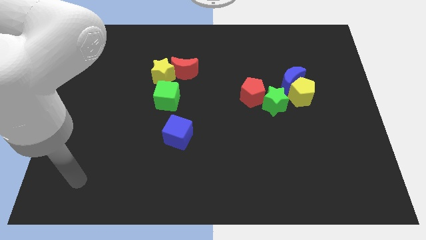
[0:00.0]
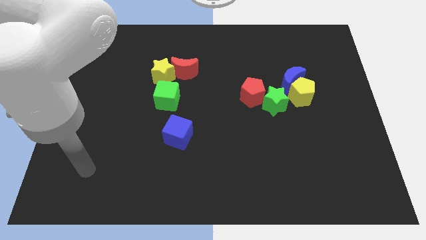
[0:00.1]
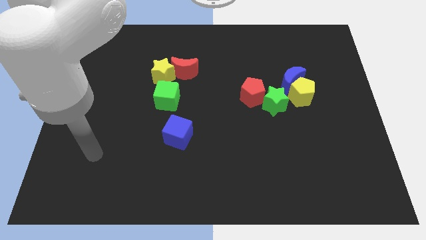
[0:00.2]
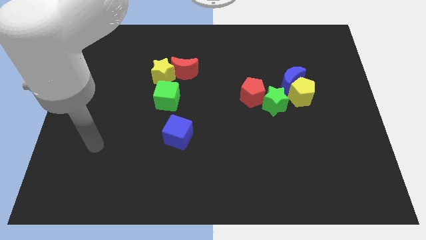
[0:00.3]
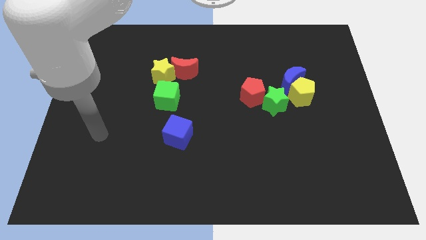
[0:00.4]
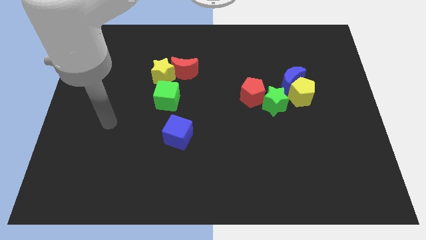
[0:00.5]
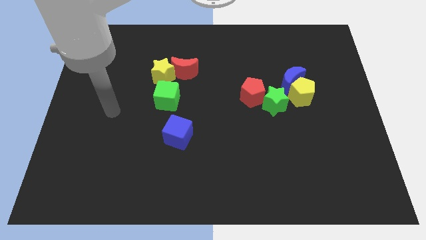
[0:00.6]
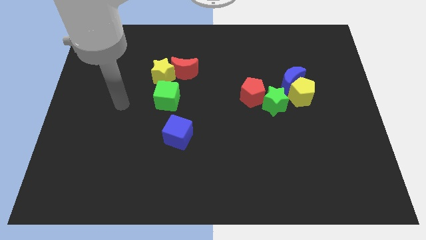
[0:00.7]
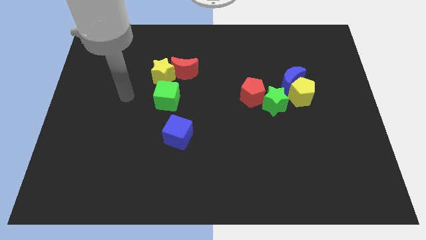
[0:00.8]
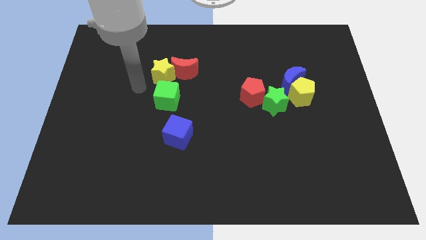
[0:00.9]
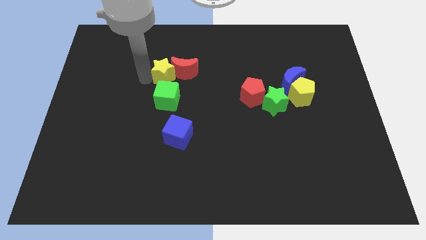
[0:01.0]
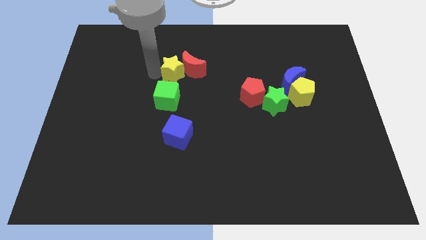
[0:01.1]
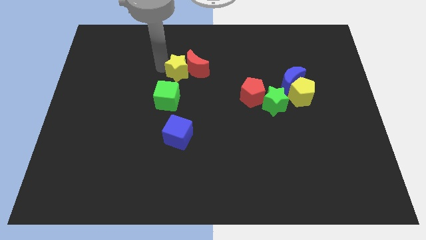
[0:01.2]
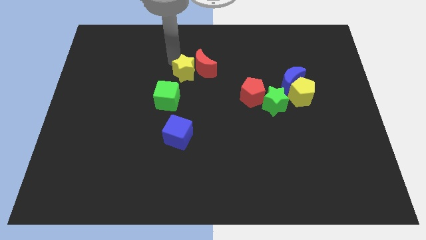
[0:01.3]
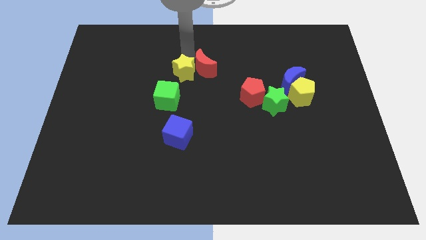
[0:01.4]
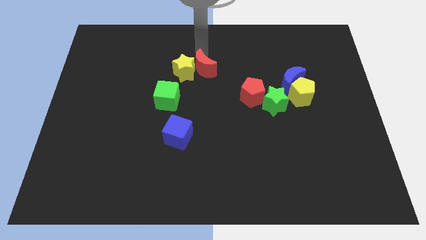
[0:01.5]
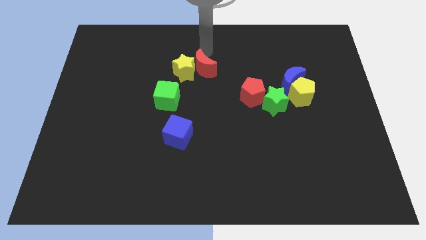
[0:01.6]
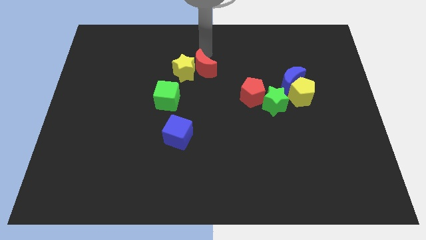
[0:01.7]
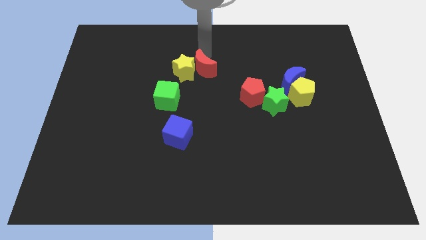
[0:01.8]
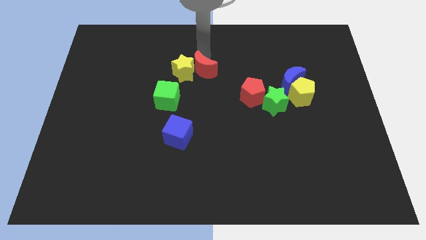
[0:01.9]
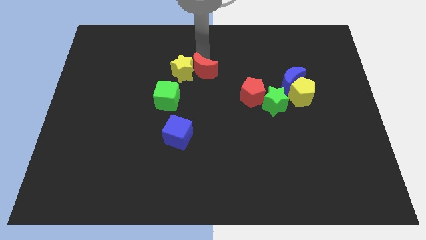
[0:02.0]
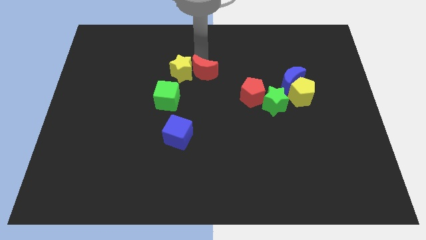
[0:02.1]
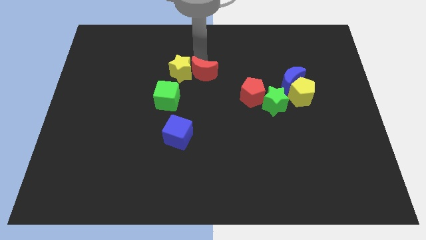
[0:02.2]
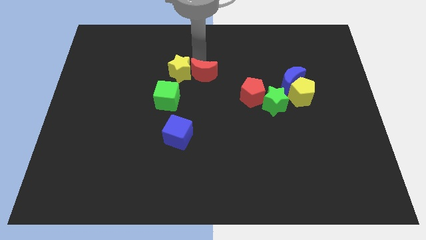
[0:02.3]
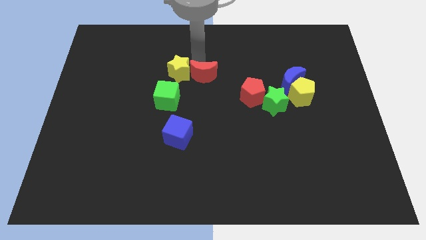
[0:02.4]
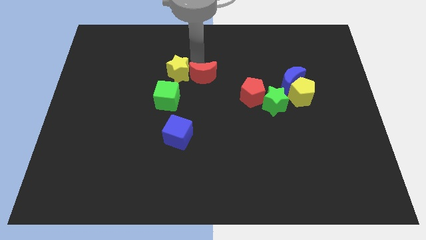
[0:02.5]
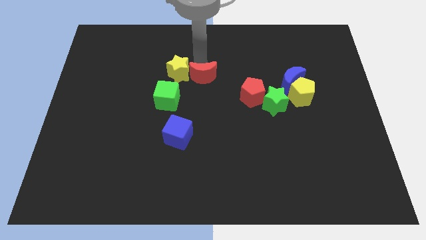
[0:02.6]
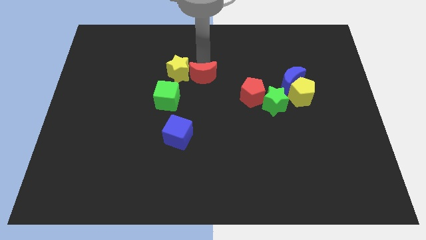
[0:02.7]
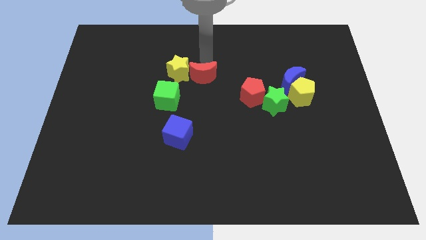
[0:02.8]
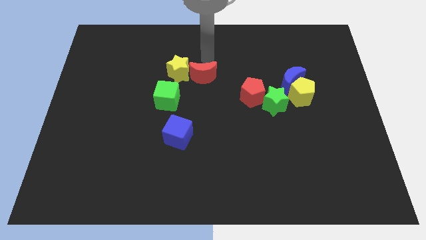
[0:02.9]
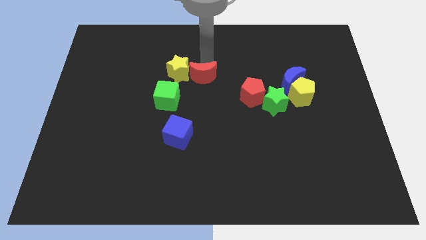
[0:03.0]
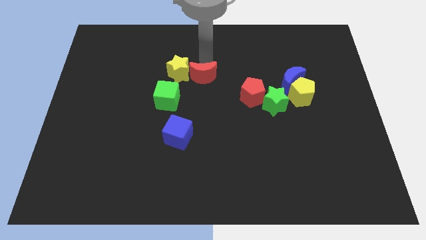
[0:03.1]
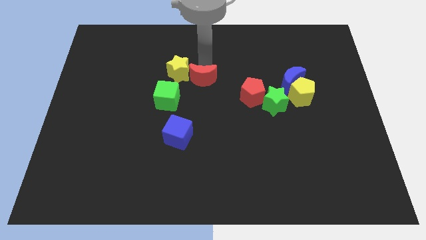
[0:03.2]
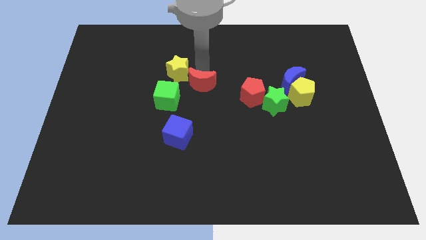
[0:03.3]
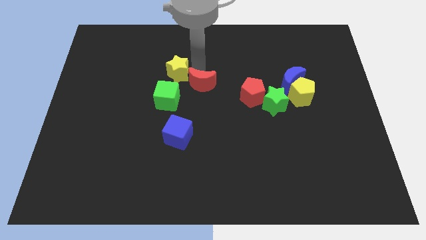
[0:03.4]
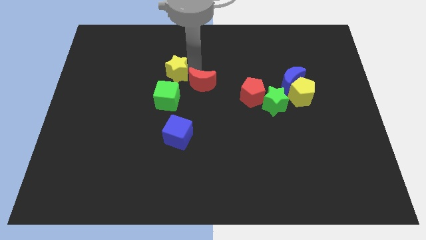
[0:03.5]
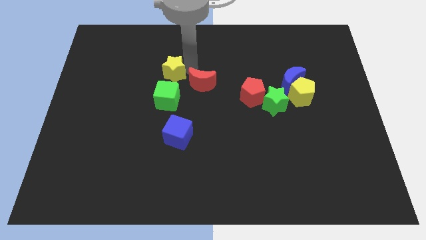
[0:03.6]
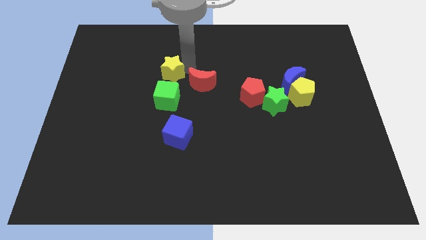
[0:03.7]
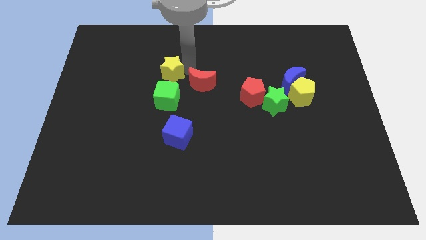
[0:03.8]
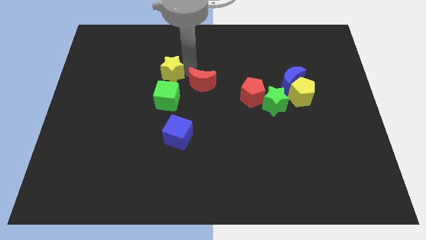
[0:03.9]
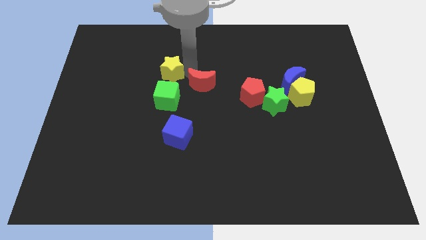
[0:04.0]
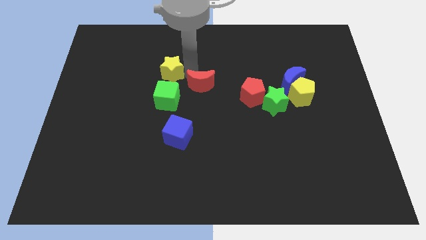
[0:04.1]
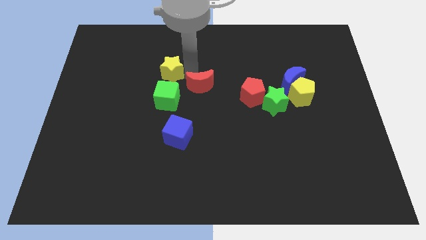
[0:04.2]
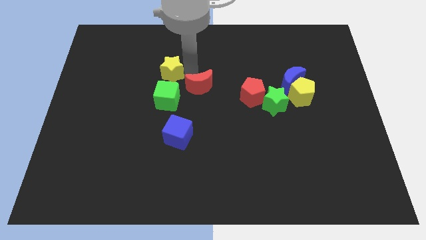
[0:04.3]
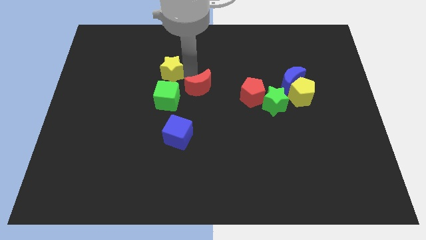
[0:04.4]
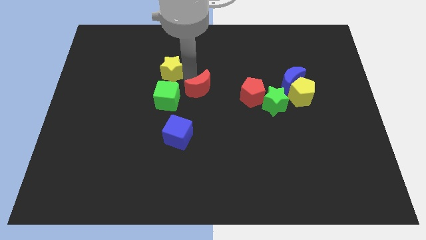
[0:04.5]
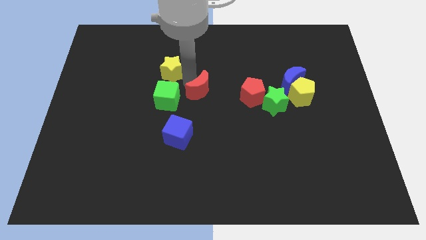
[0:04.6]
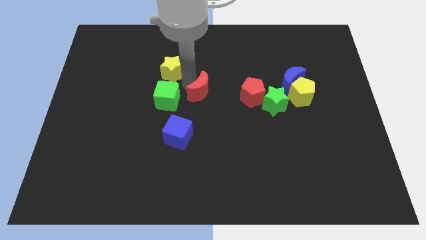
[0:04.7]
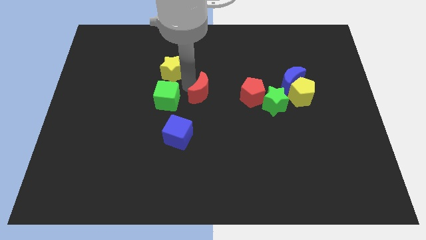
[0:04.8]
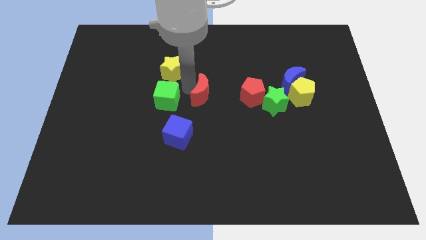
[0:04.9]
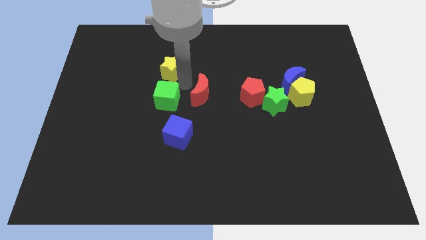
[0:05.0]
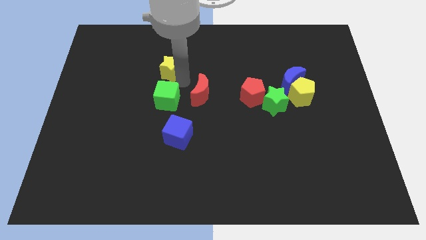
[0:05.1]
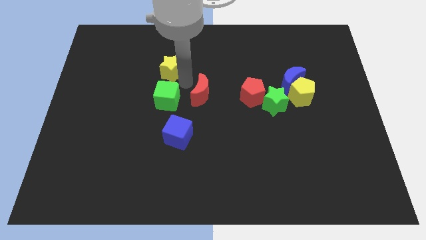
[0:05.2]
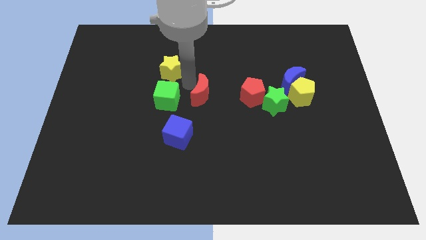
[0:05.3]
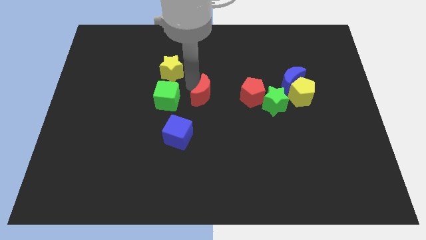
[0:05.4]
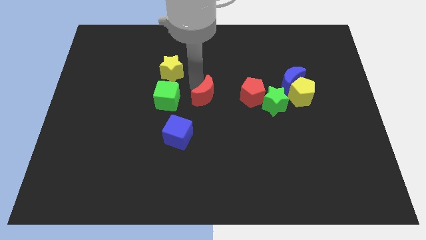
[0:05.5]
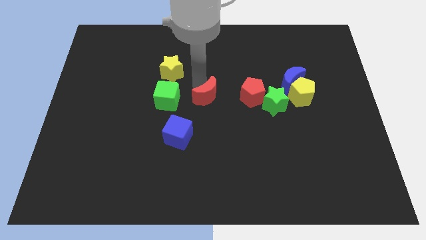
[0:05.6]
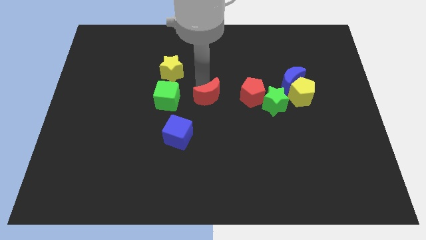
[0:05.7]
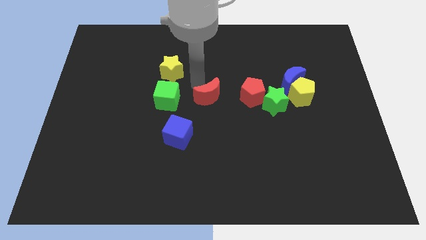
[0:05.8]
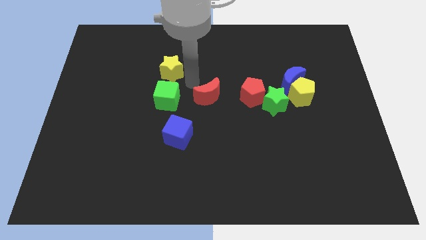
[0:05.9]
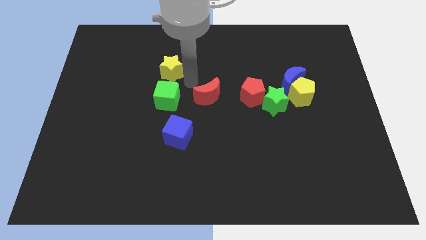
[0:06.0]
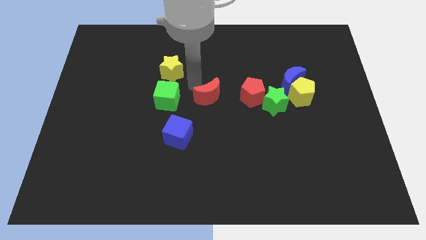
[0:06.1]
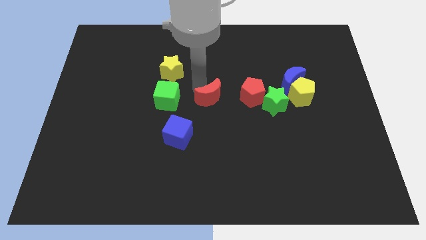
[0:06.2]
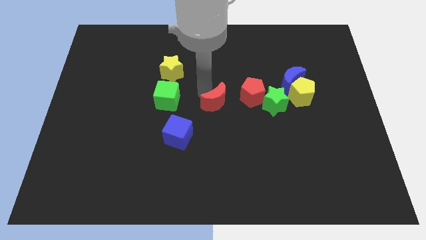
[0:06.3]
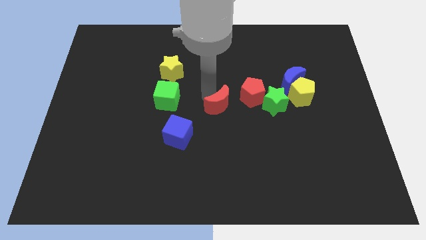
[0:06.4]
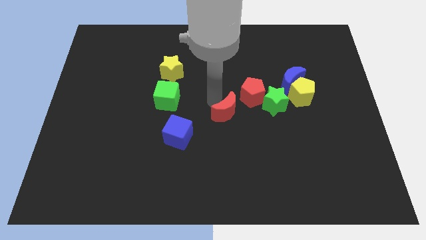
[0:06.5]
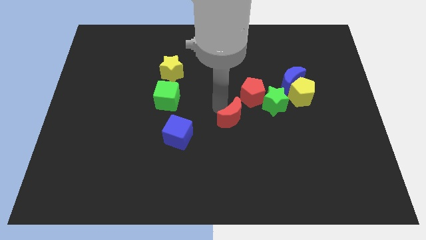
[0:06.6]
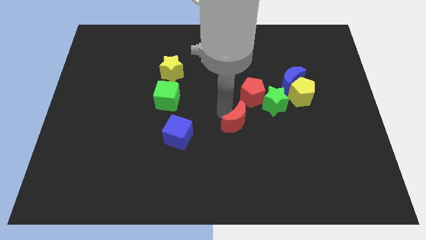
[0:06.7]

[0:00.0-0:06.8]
push the red moon diagonally down and to the right

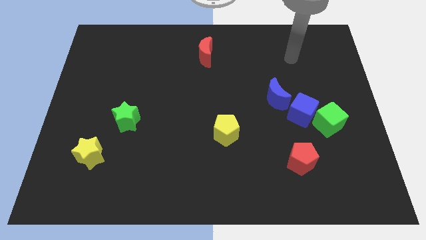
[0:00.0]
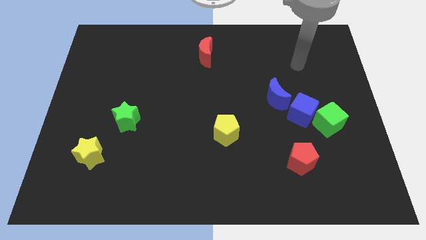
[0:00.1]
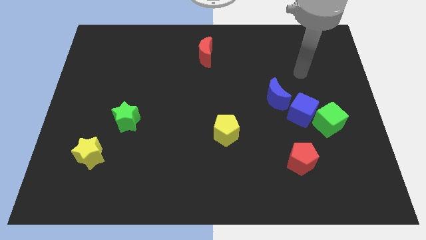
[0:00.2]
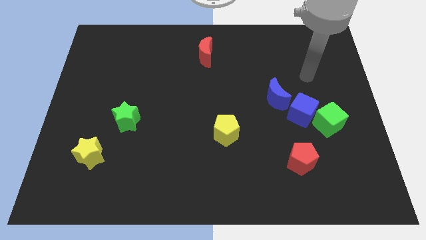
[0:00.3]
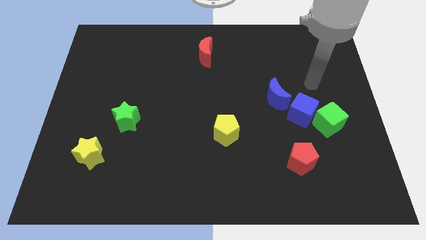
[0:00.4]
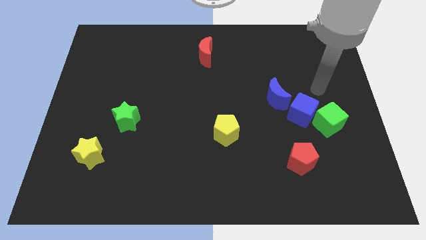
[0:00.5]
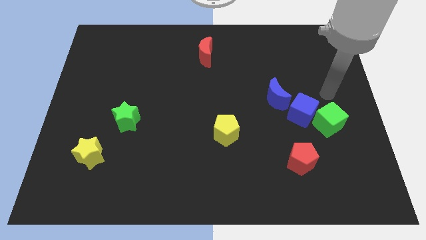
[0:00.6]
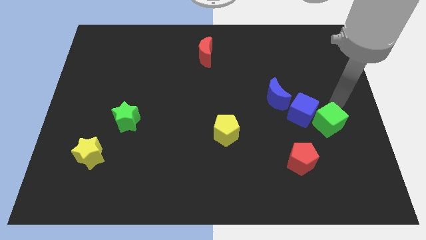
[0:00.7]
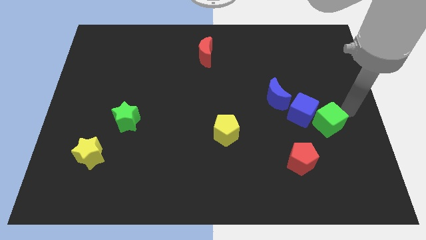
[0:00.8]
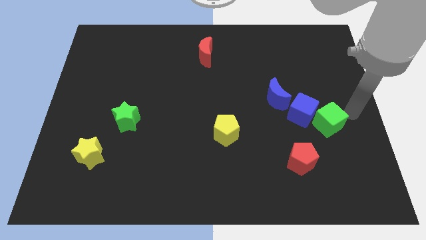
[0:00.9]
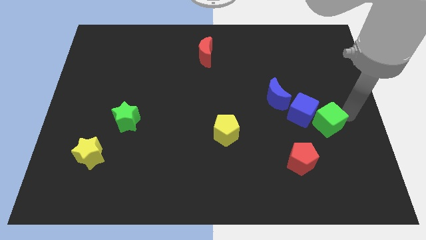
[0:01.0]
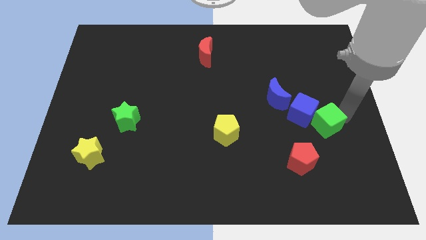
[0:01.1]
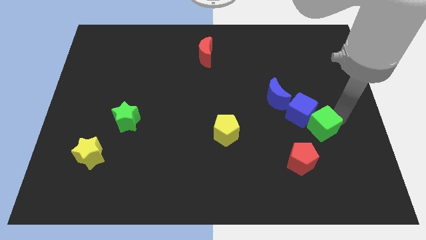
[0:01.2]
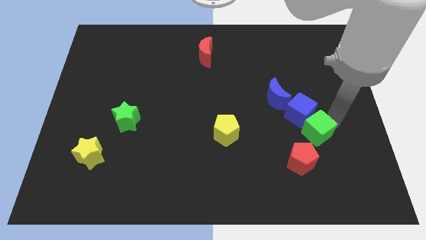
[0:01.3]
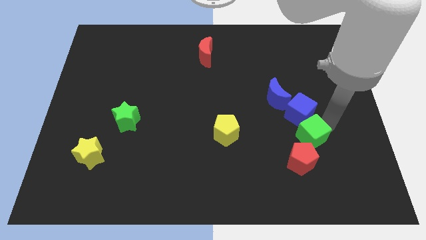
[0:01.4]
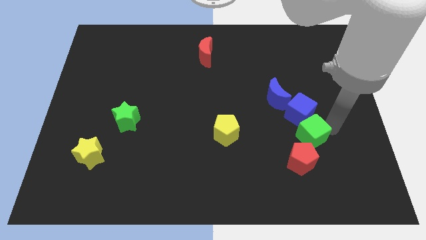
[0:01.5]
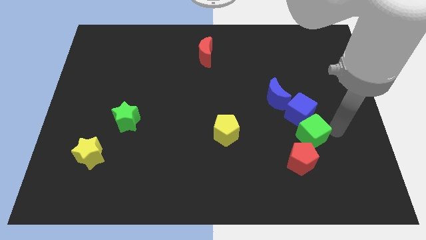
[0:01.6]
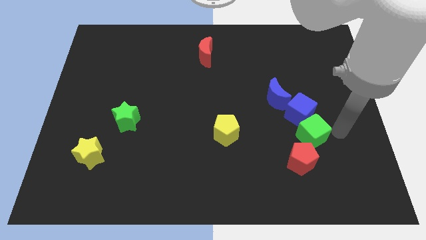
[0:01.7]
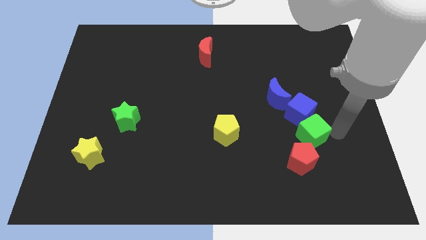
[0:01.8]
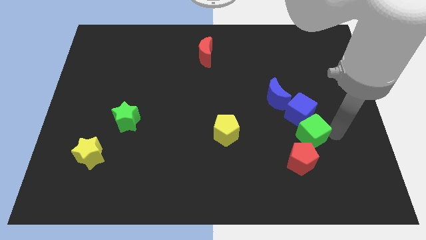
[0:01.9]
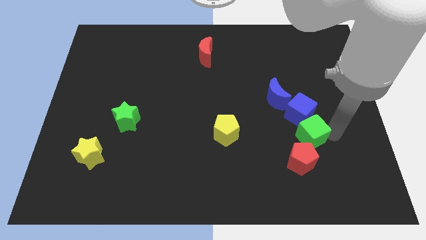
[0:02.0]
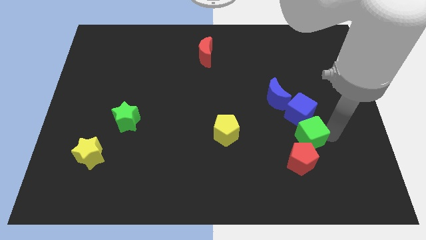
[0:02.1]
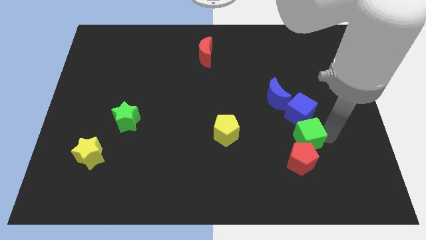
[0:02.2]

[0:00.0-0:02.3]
move the green cube somewhat downwards and to the left
